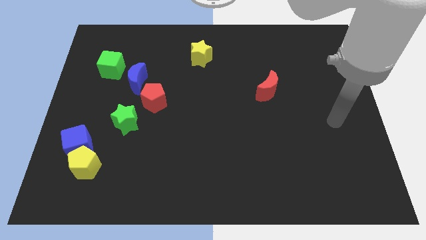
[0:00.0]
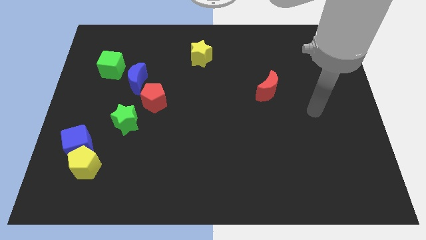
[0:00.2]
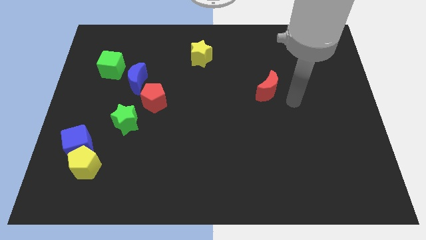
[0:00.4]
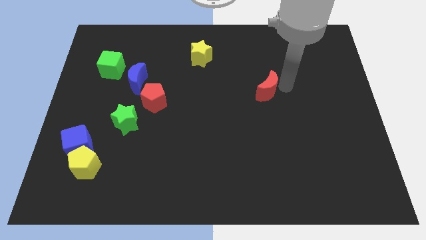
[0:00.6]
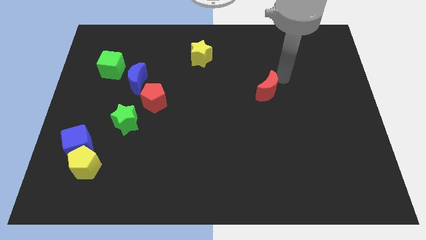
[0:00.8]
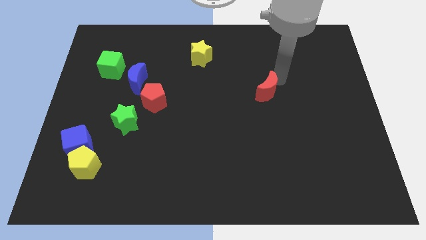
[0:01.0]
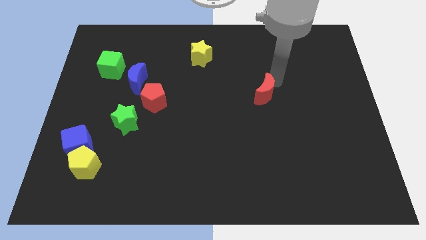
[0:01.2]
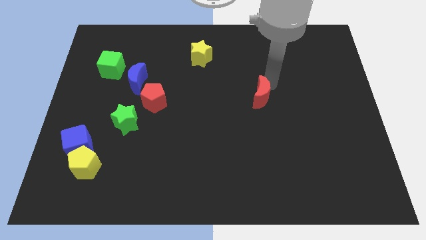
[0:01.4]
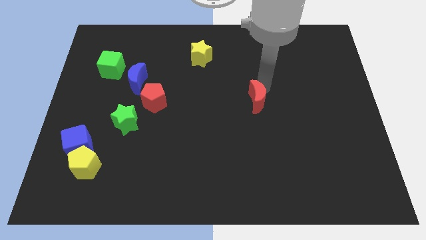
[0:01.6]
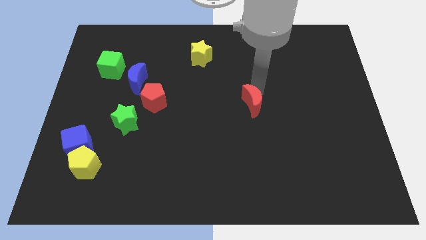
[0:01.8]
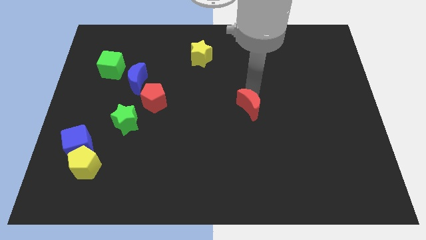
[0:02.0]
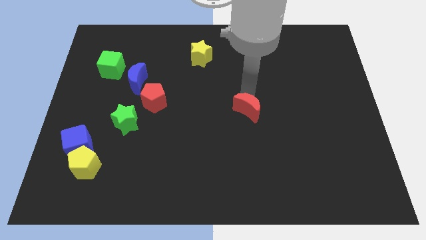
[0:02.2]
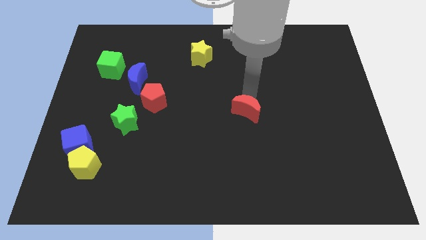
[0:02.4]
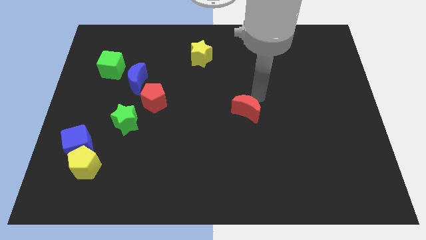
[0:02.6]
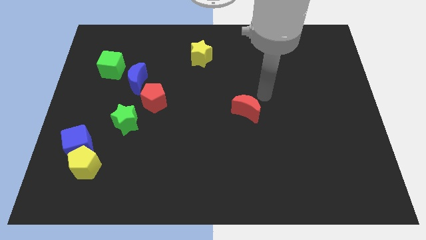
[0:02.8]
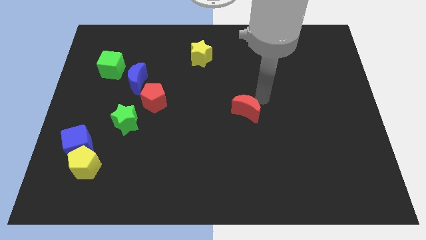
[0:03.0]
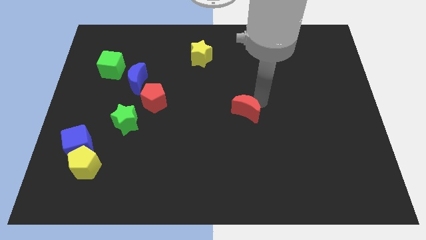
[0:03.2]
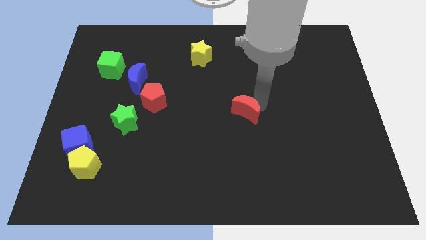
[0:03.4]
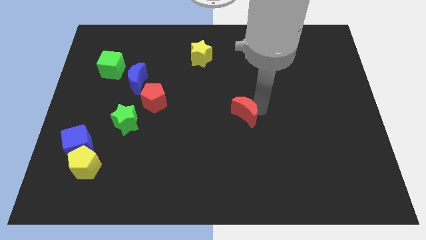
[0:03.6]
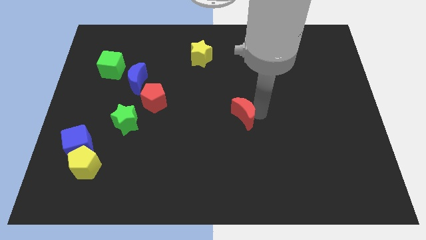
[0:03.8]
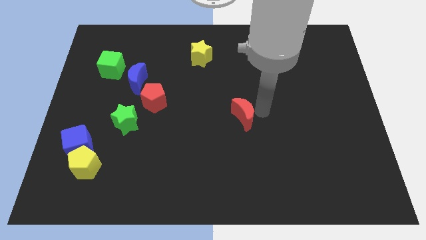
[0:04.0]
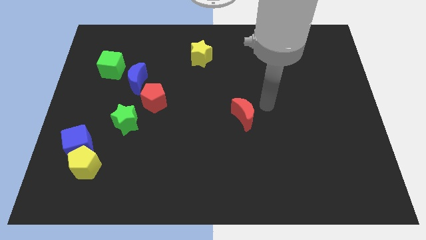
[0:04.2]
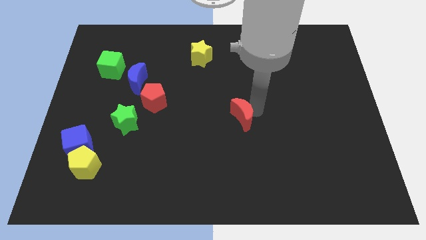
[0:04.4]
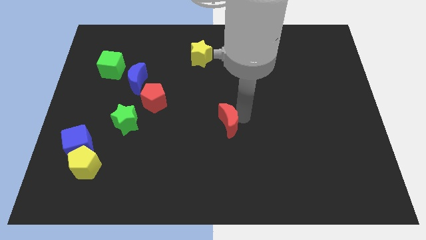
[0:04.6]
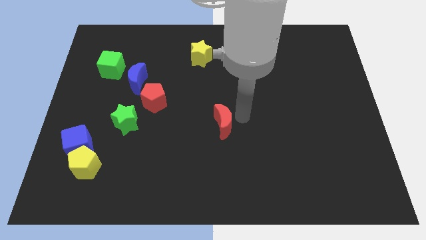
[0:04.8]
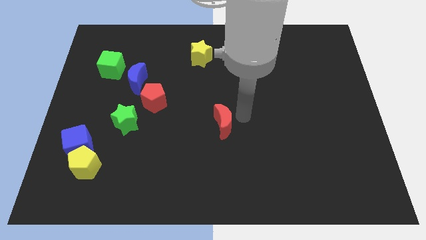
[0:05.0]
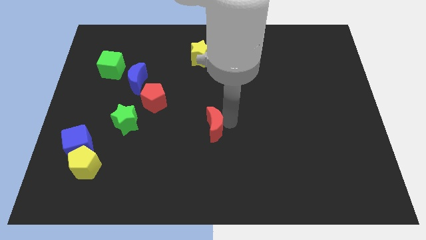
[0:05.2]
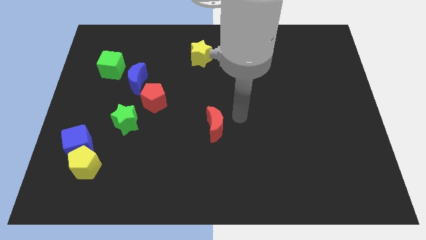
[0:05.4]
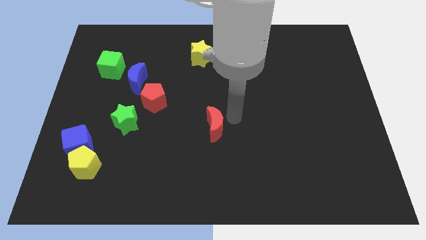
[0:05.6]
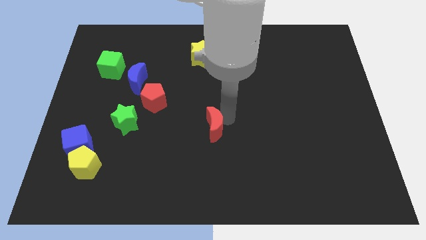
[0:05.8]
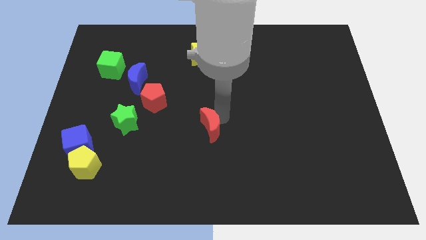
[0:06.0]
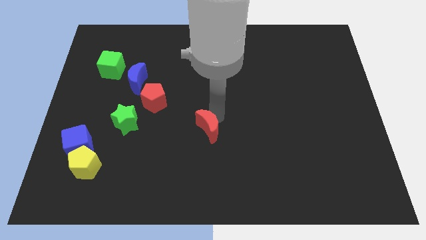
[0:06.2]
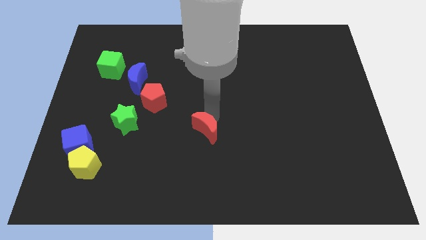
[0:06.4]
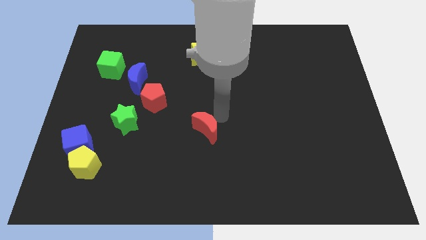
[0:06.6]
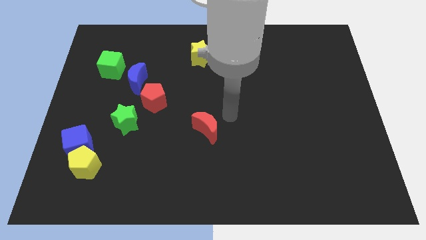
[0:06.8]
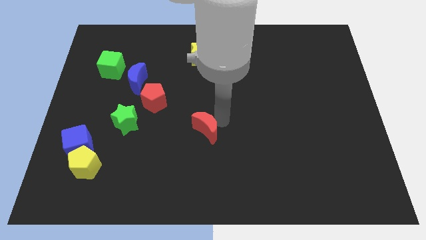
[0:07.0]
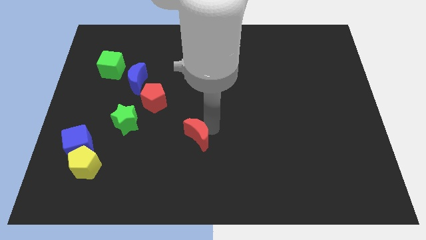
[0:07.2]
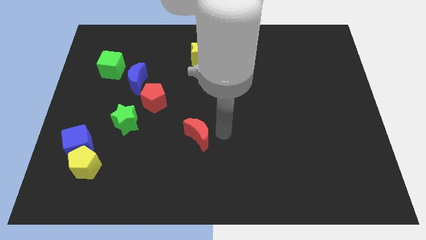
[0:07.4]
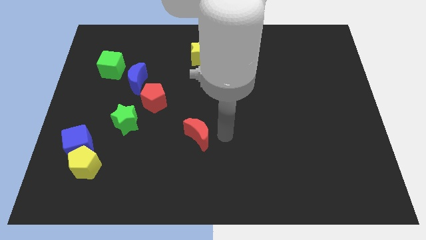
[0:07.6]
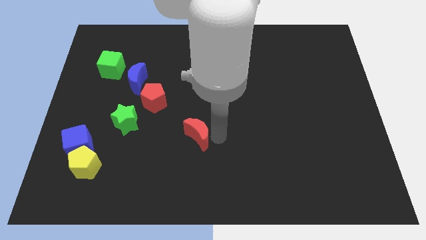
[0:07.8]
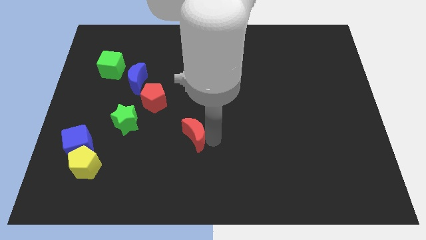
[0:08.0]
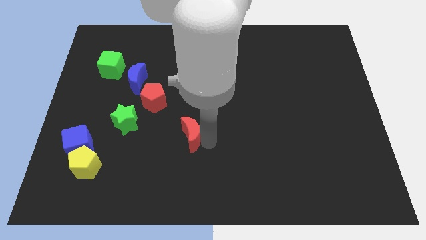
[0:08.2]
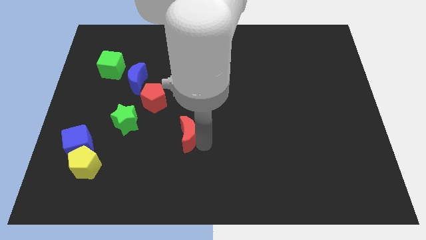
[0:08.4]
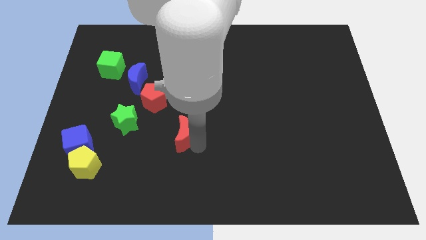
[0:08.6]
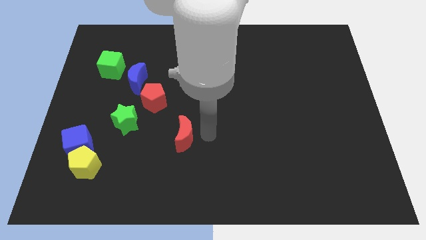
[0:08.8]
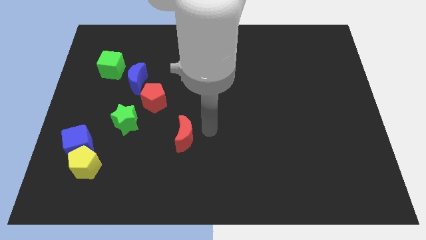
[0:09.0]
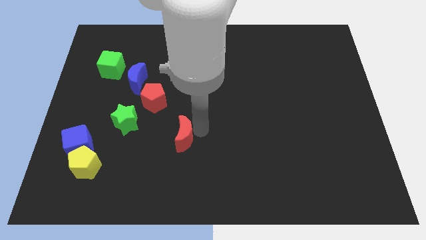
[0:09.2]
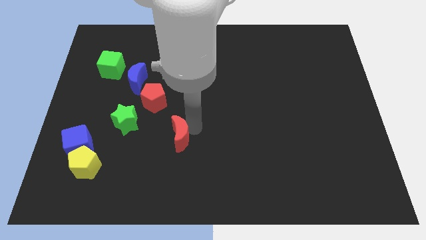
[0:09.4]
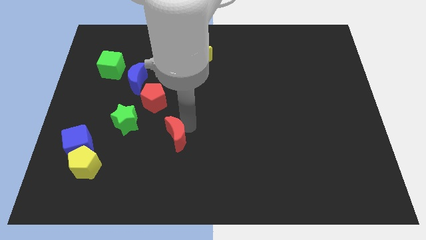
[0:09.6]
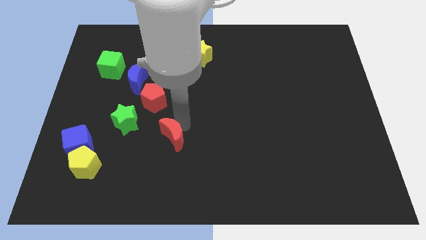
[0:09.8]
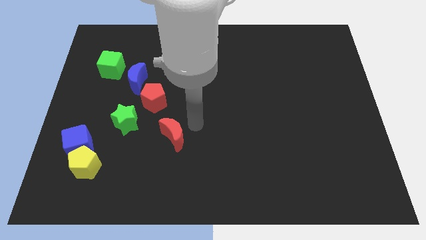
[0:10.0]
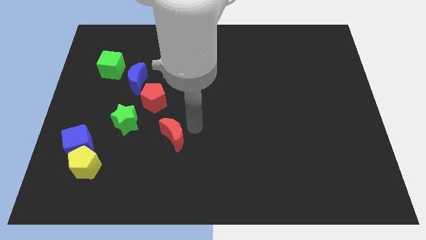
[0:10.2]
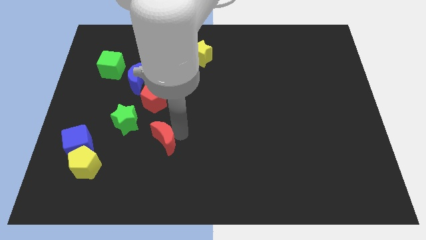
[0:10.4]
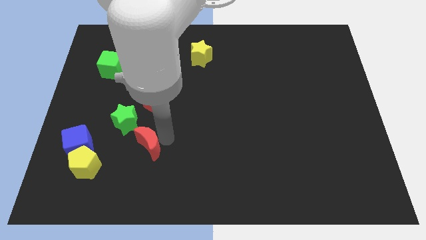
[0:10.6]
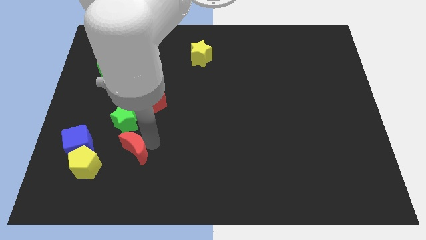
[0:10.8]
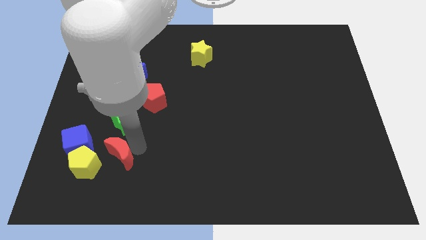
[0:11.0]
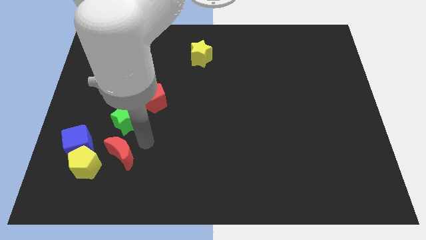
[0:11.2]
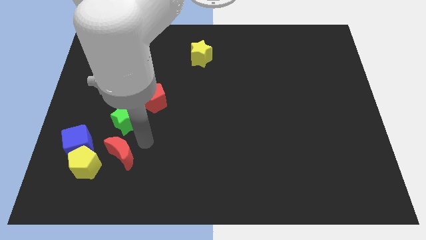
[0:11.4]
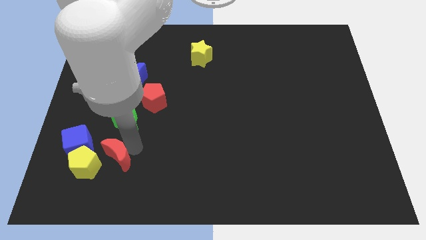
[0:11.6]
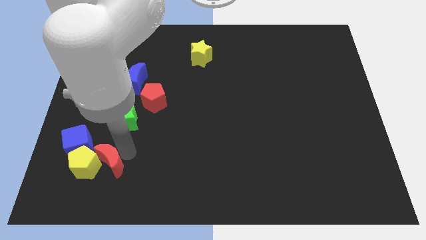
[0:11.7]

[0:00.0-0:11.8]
slide the red moon close to the yellow pentagon

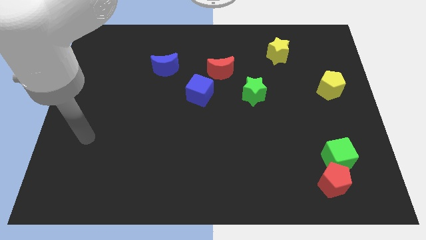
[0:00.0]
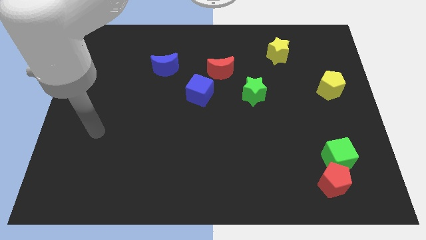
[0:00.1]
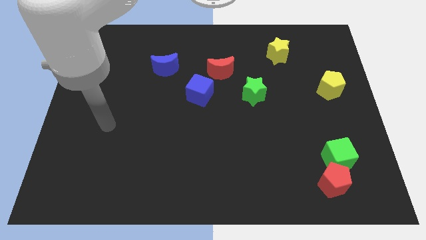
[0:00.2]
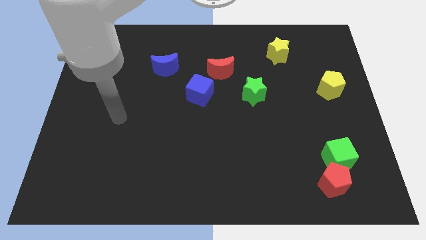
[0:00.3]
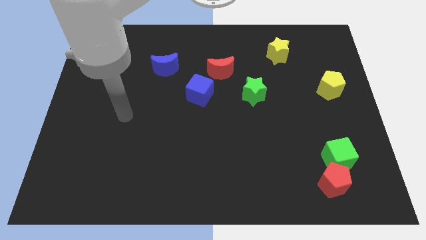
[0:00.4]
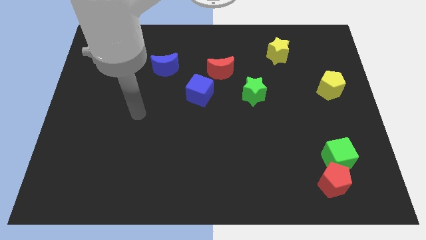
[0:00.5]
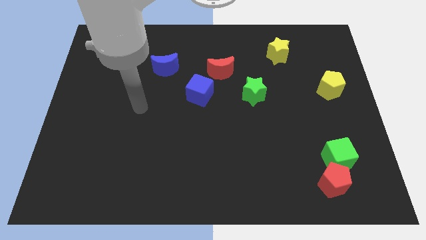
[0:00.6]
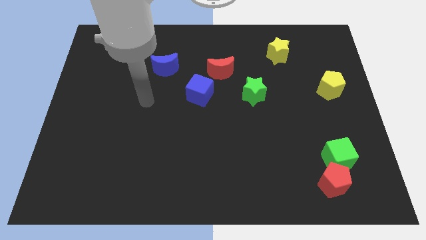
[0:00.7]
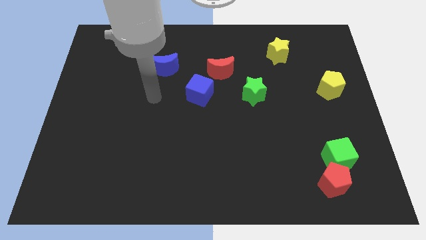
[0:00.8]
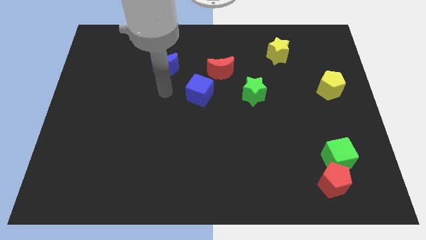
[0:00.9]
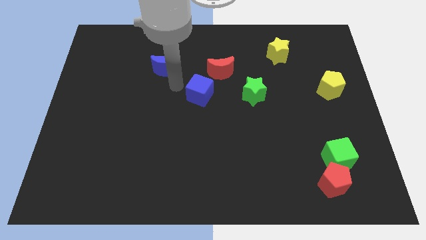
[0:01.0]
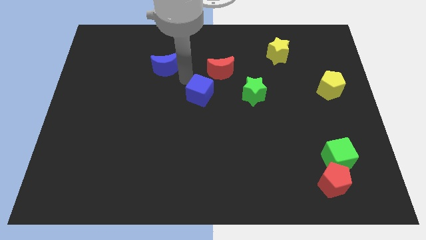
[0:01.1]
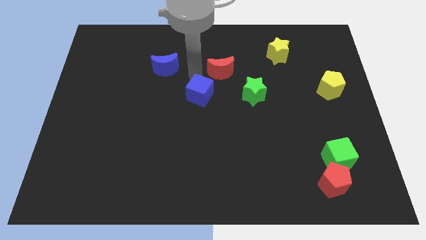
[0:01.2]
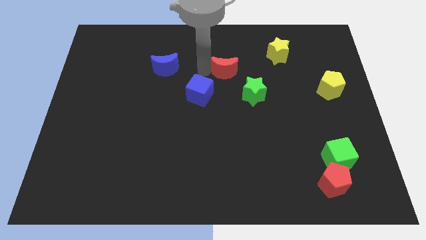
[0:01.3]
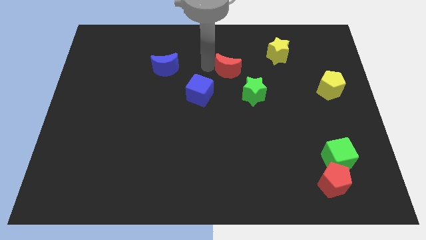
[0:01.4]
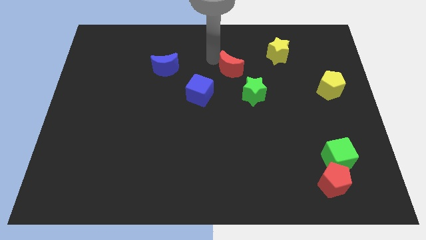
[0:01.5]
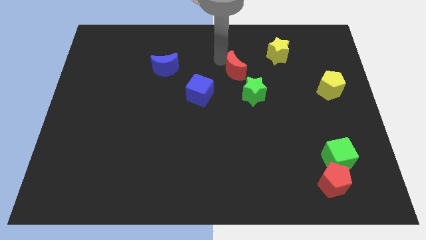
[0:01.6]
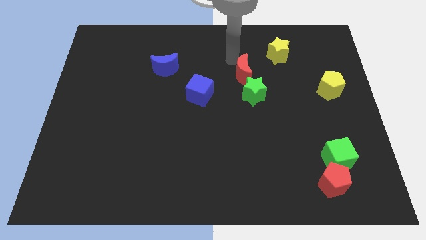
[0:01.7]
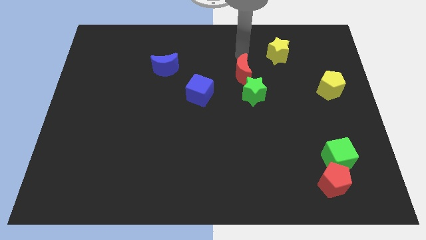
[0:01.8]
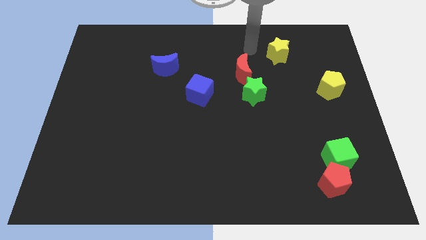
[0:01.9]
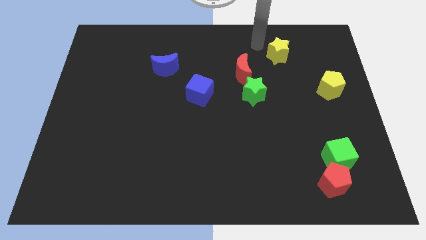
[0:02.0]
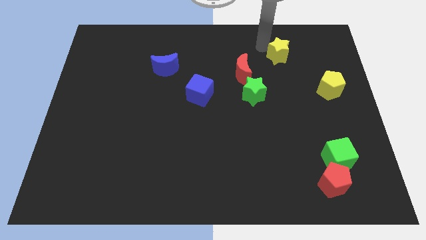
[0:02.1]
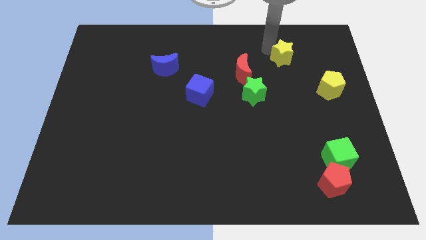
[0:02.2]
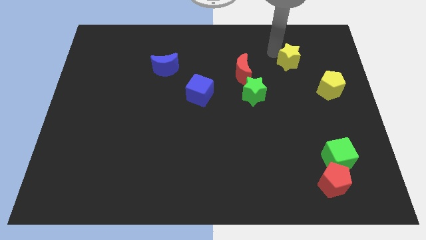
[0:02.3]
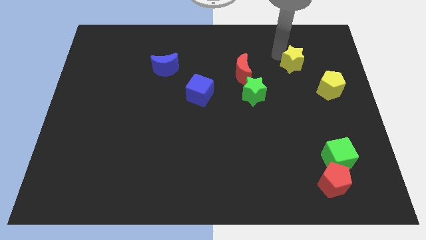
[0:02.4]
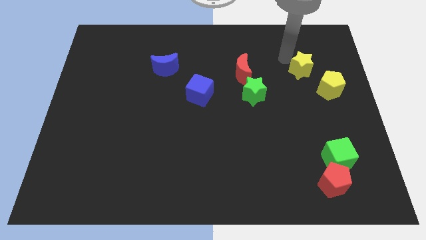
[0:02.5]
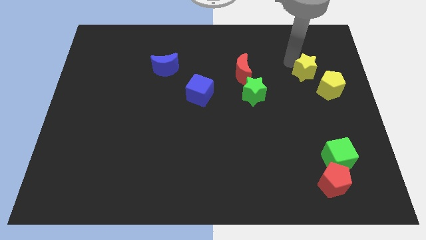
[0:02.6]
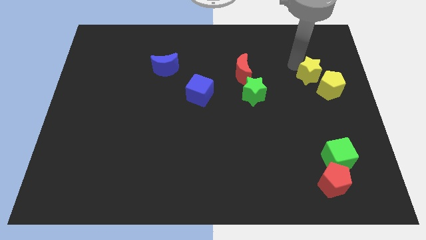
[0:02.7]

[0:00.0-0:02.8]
put the yellow star towards the yellow pentagon
